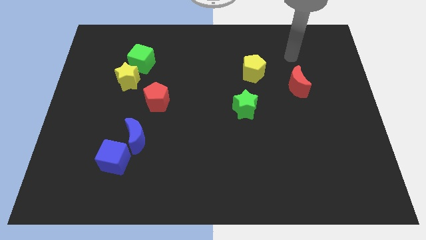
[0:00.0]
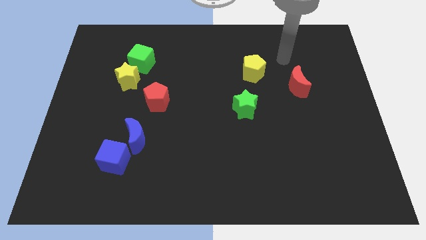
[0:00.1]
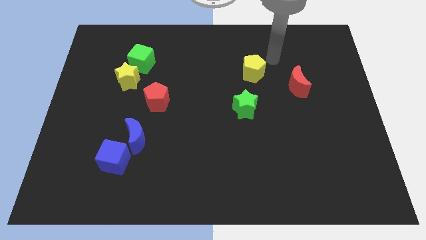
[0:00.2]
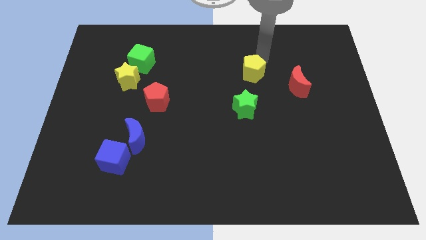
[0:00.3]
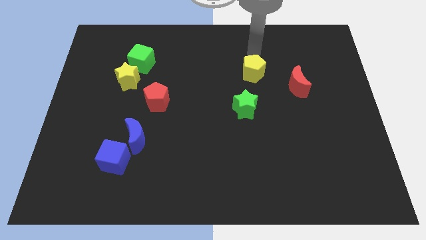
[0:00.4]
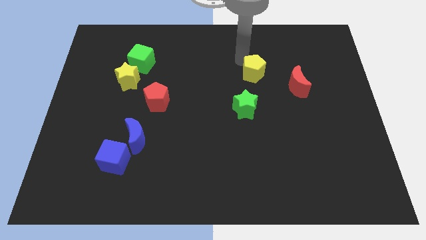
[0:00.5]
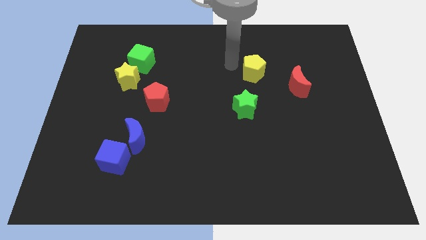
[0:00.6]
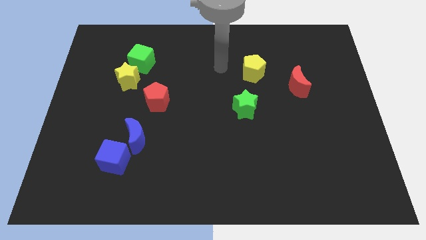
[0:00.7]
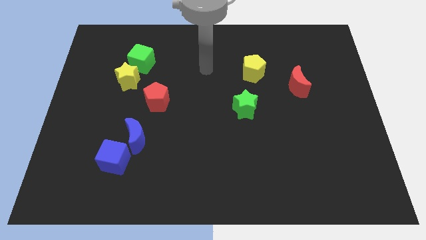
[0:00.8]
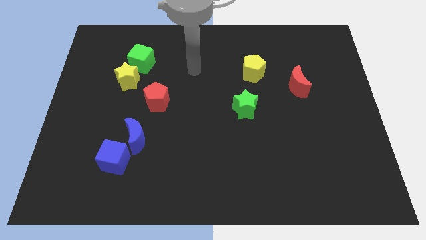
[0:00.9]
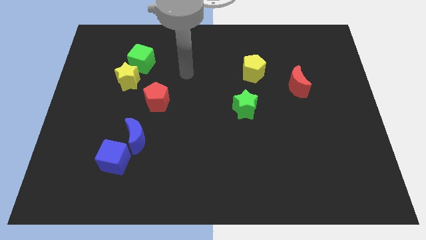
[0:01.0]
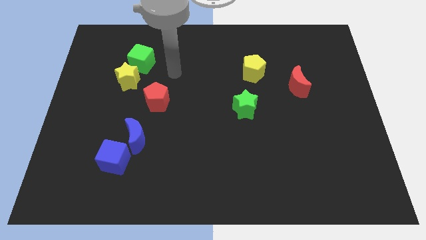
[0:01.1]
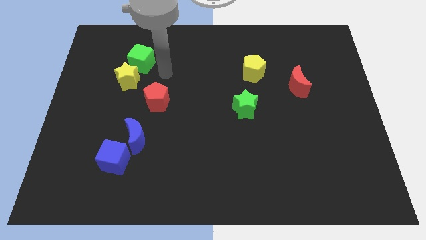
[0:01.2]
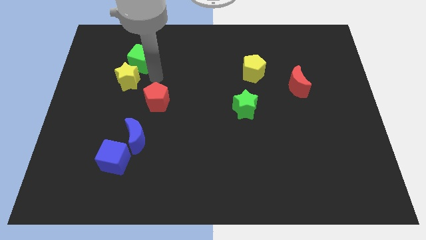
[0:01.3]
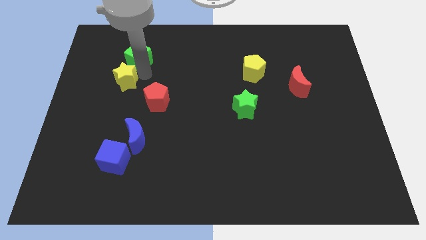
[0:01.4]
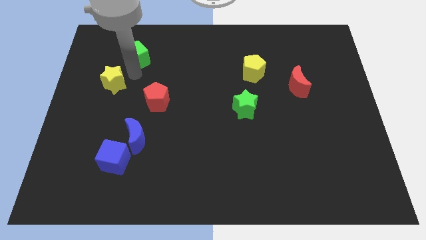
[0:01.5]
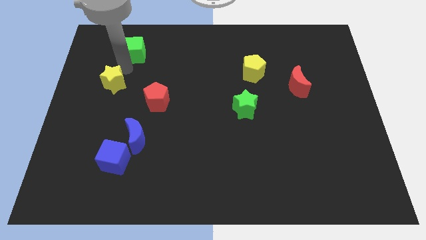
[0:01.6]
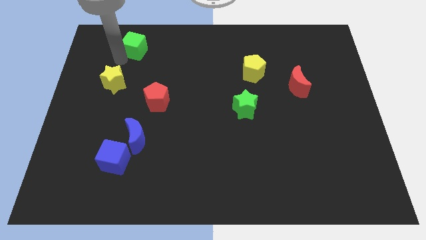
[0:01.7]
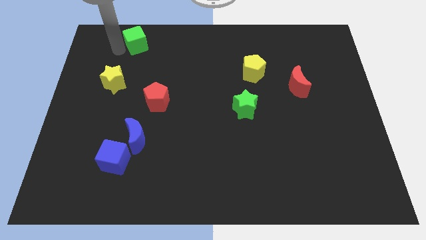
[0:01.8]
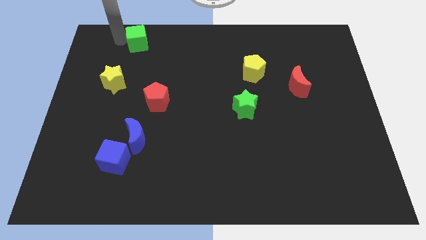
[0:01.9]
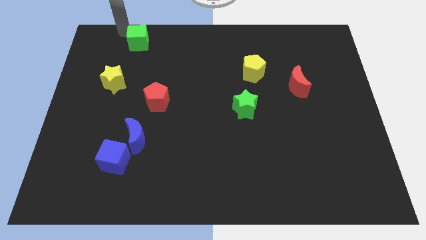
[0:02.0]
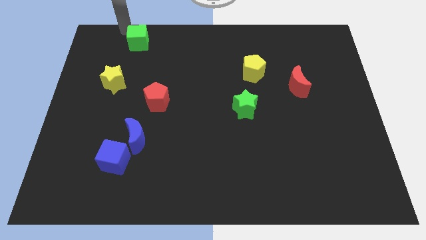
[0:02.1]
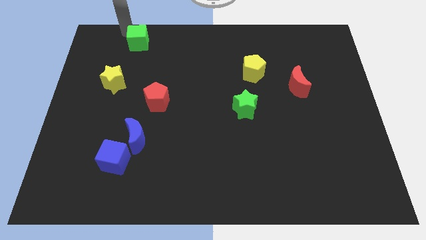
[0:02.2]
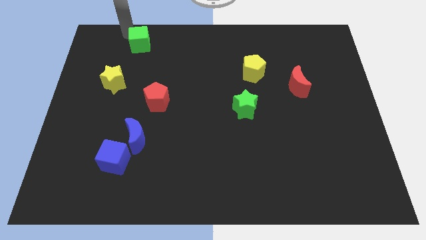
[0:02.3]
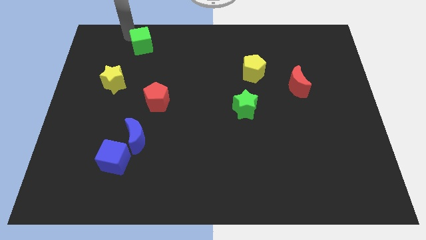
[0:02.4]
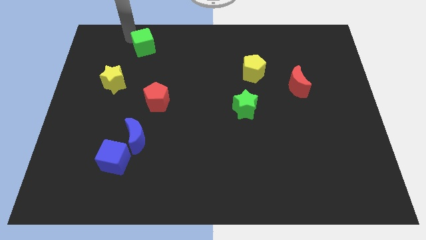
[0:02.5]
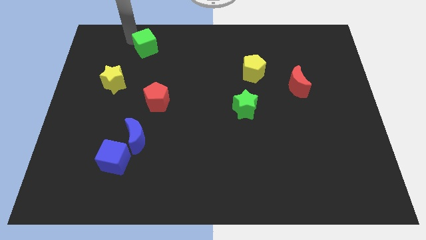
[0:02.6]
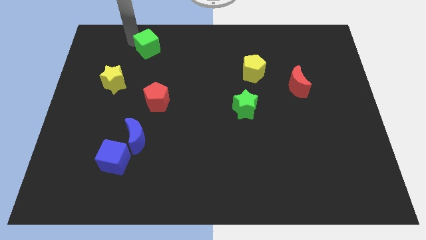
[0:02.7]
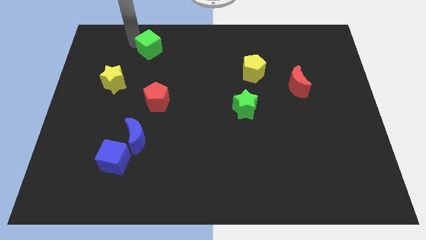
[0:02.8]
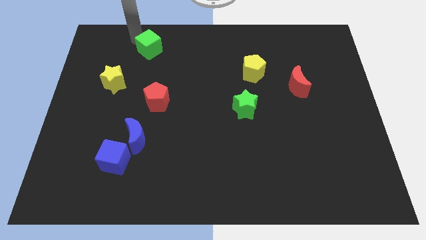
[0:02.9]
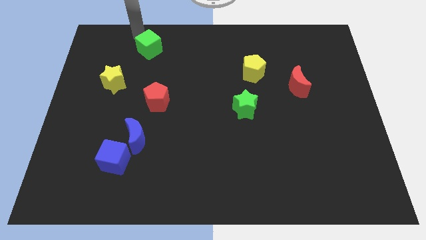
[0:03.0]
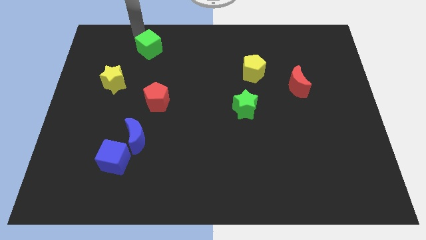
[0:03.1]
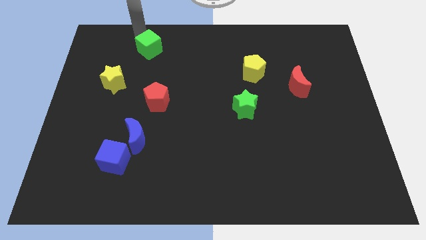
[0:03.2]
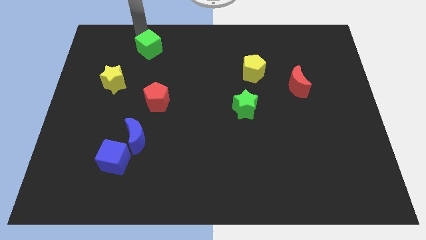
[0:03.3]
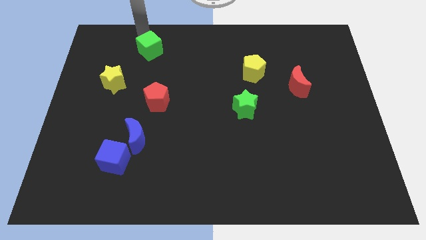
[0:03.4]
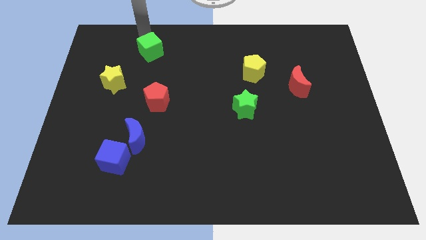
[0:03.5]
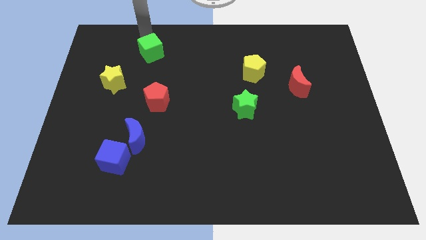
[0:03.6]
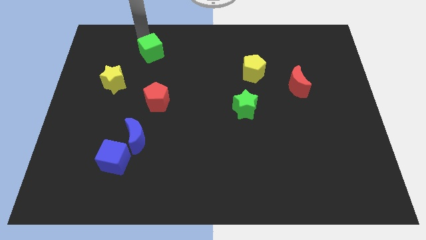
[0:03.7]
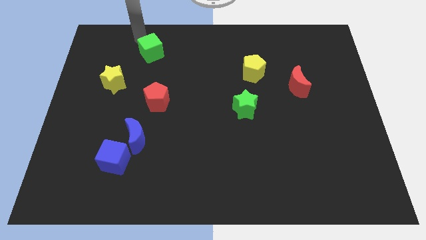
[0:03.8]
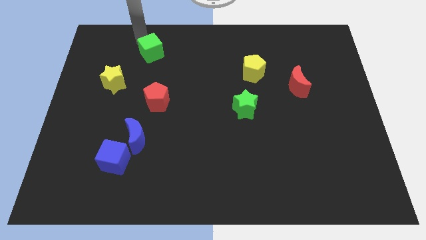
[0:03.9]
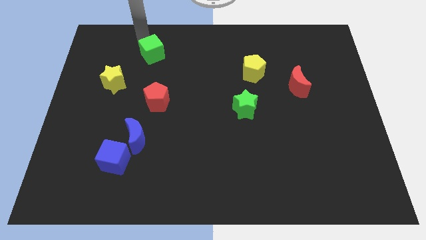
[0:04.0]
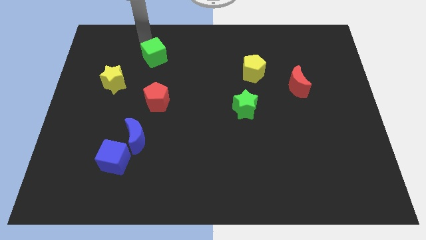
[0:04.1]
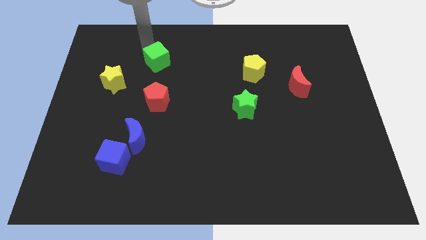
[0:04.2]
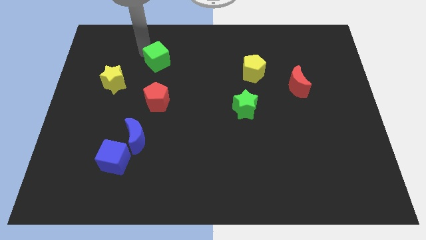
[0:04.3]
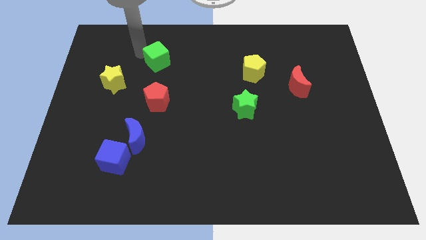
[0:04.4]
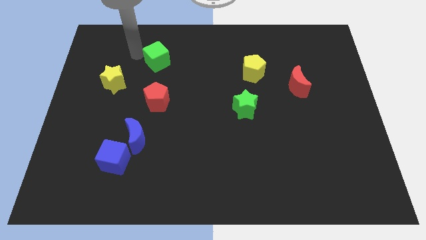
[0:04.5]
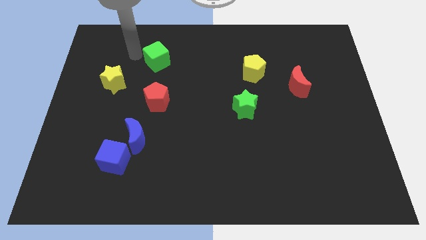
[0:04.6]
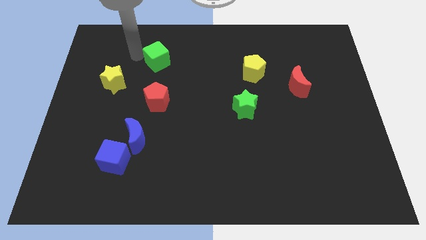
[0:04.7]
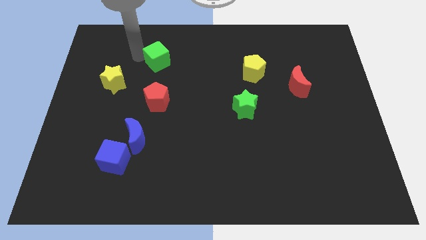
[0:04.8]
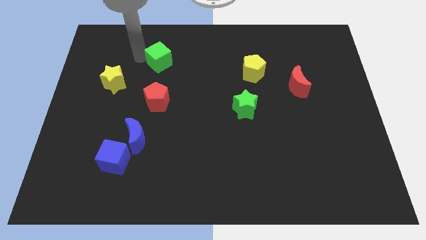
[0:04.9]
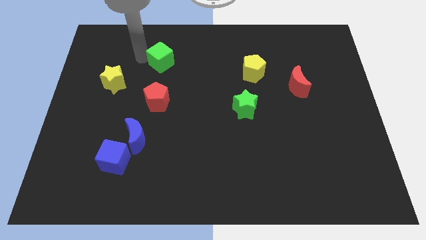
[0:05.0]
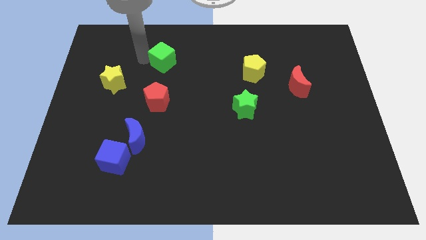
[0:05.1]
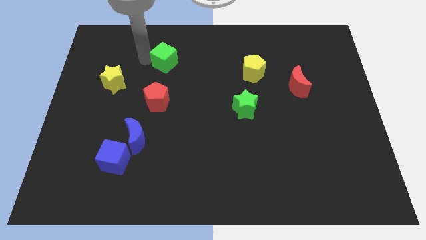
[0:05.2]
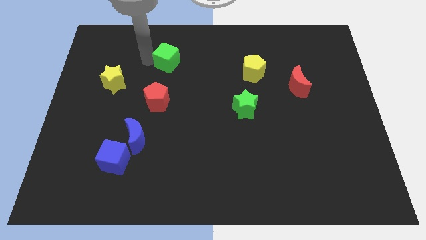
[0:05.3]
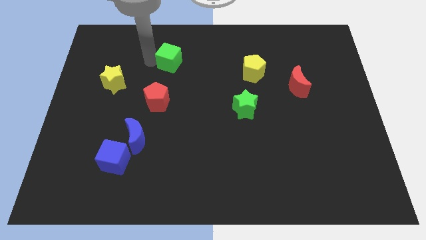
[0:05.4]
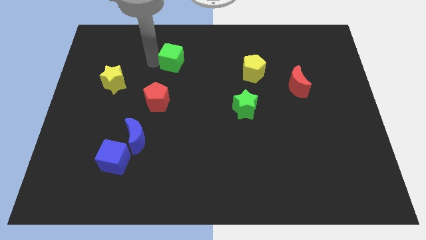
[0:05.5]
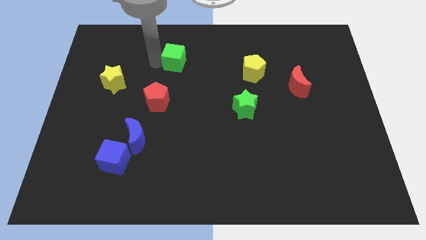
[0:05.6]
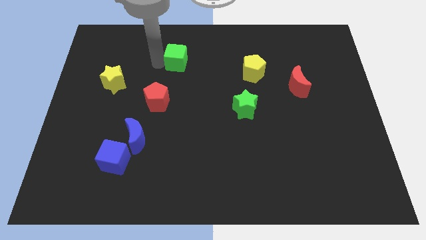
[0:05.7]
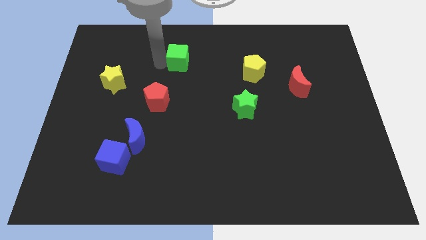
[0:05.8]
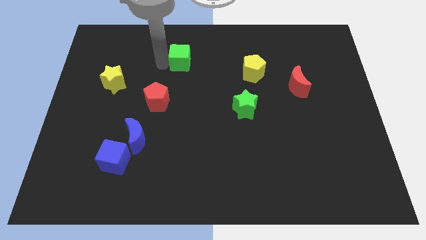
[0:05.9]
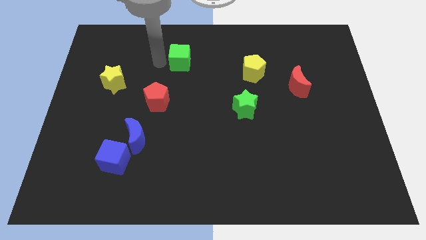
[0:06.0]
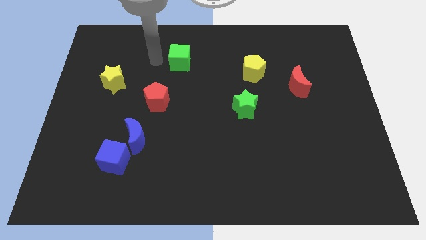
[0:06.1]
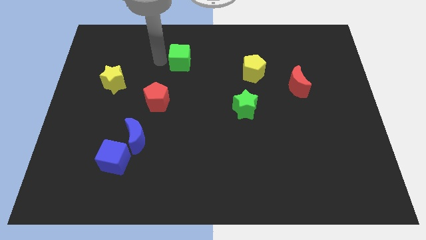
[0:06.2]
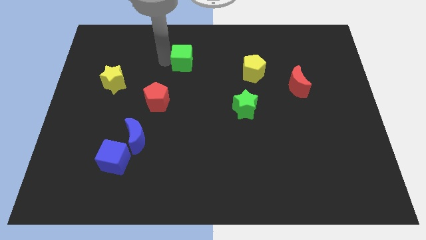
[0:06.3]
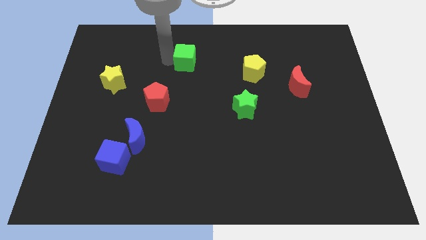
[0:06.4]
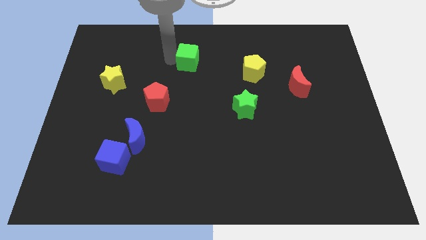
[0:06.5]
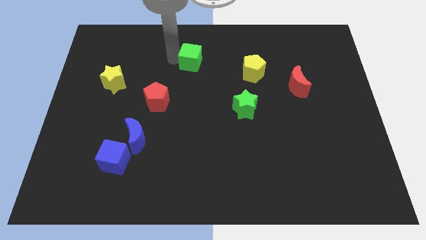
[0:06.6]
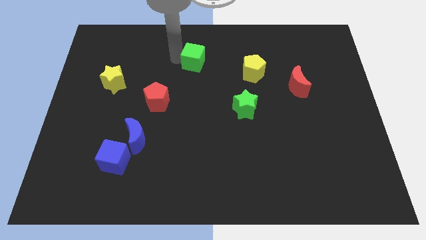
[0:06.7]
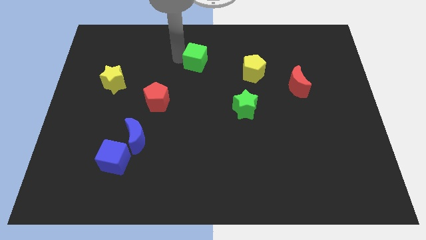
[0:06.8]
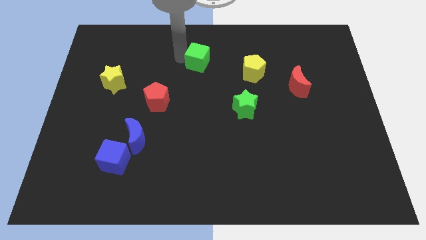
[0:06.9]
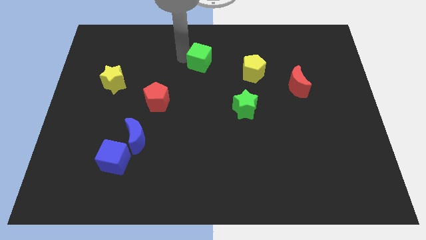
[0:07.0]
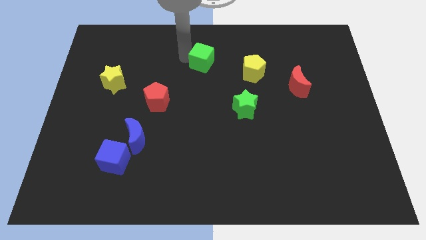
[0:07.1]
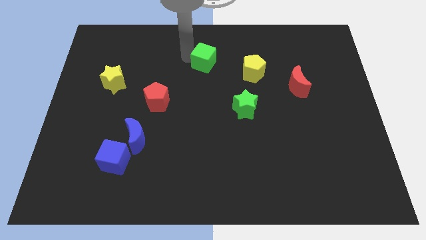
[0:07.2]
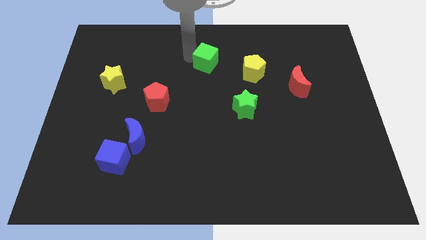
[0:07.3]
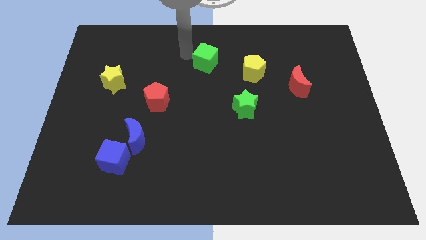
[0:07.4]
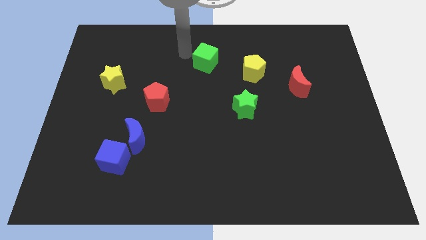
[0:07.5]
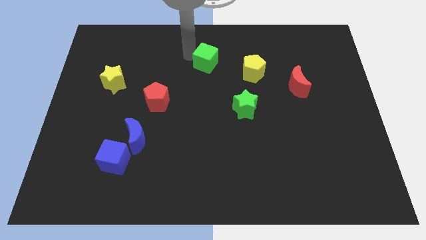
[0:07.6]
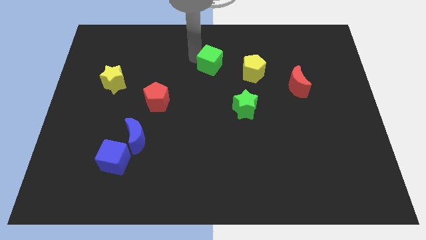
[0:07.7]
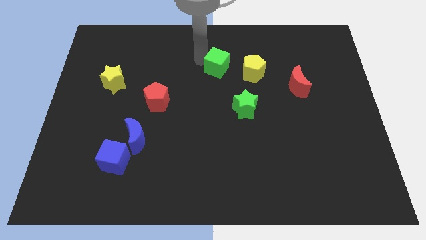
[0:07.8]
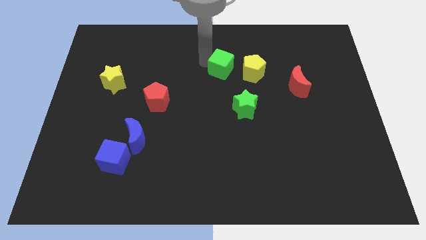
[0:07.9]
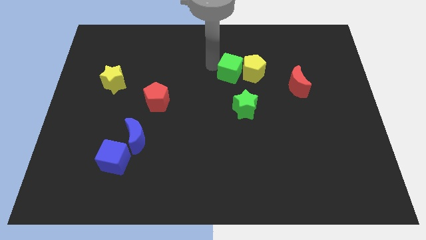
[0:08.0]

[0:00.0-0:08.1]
push the green cube close to the yellow pentagon
